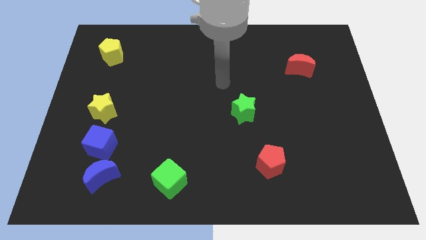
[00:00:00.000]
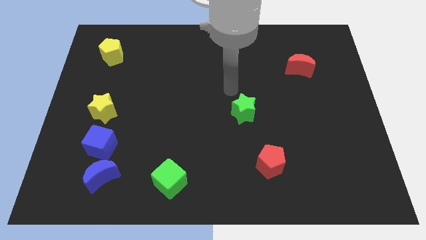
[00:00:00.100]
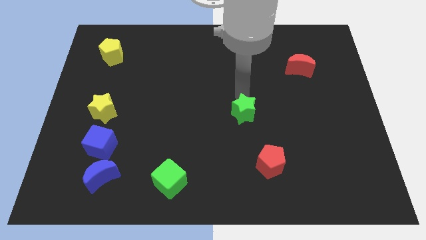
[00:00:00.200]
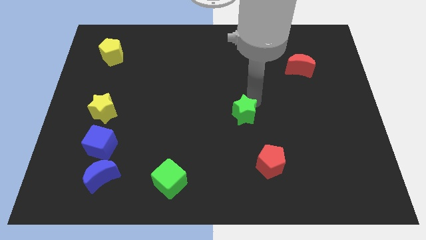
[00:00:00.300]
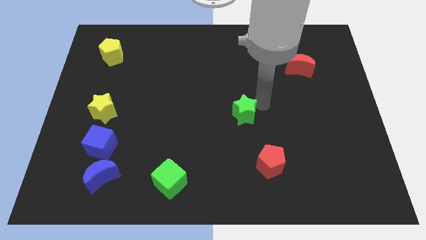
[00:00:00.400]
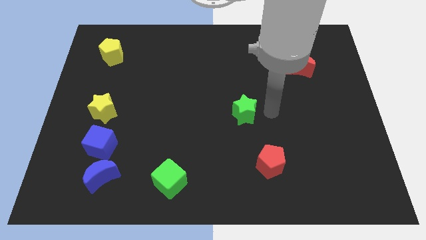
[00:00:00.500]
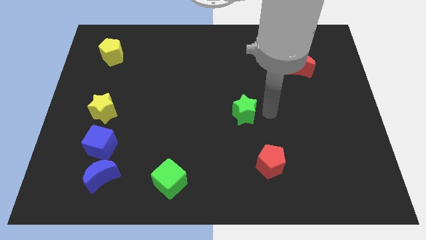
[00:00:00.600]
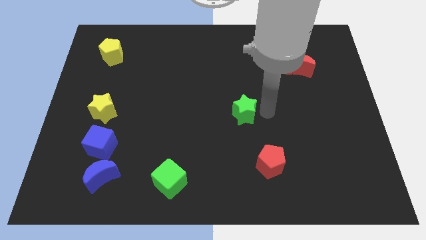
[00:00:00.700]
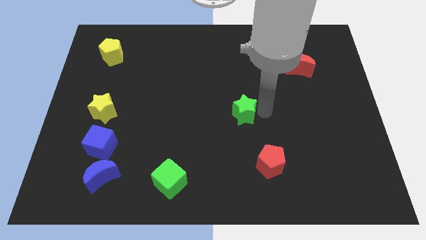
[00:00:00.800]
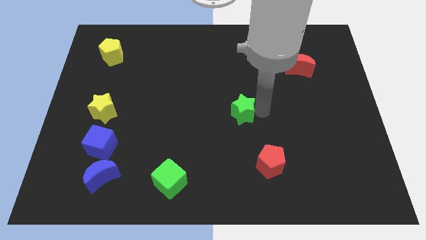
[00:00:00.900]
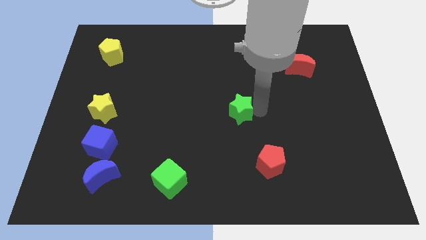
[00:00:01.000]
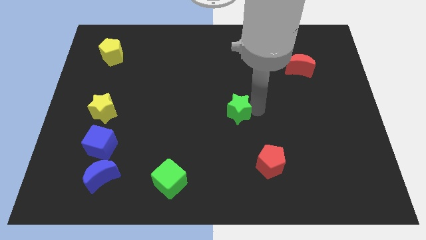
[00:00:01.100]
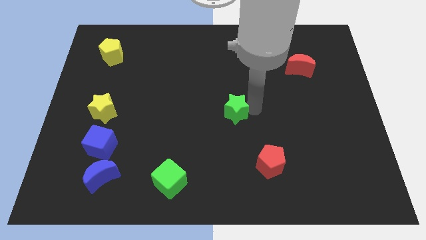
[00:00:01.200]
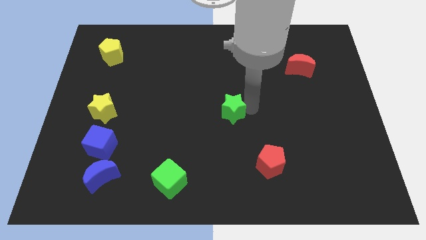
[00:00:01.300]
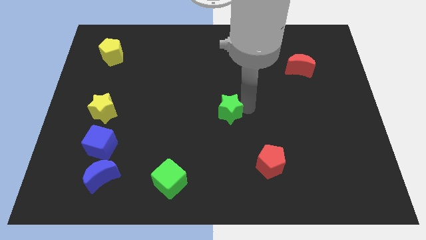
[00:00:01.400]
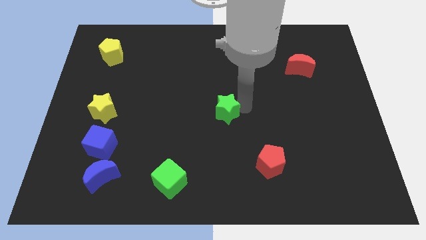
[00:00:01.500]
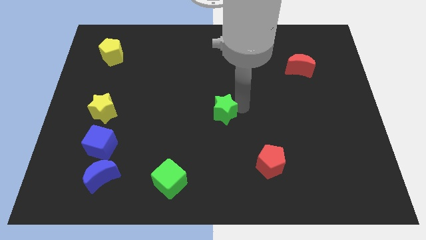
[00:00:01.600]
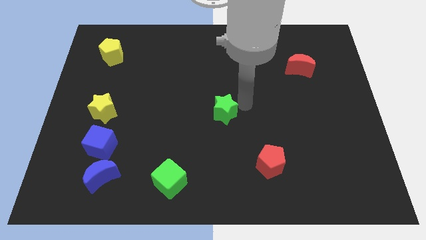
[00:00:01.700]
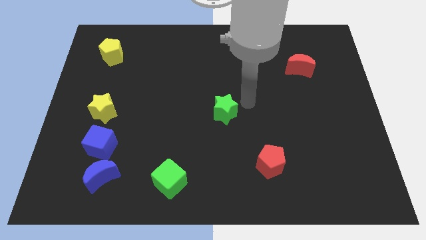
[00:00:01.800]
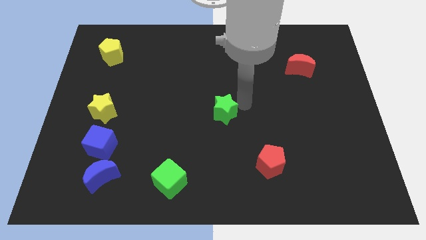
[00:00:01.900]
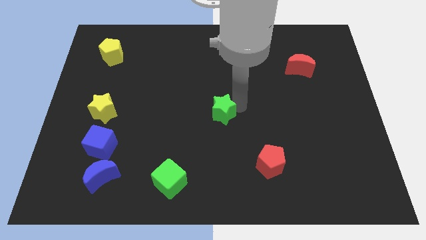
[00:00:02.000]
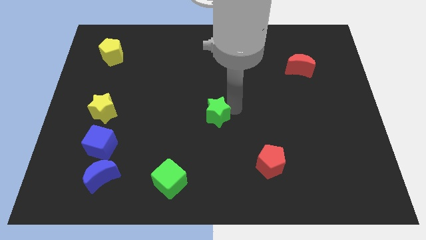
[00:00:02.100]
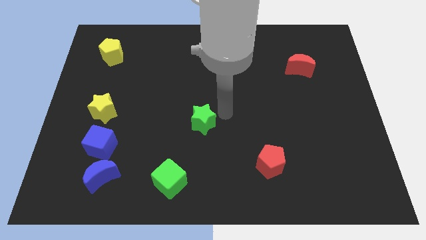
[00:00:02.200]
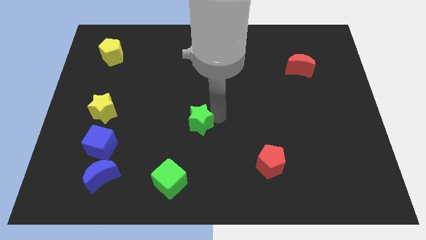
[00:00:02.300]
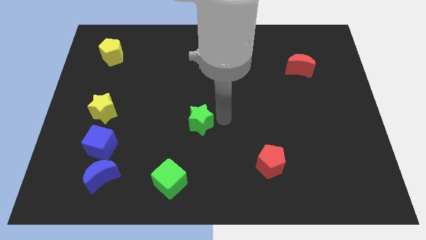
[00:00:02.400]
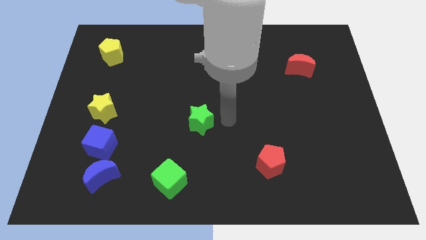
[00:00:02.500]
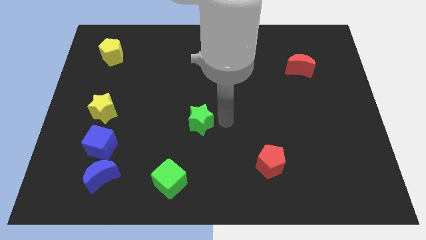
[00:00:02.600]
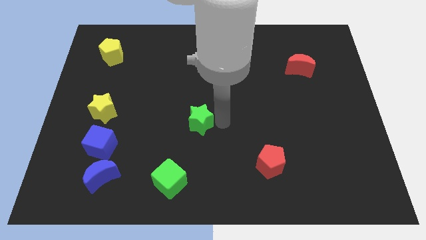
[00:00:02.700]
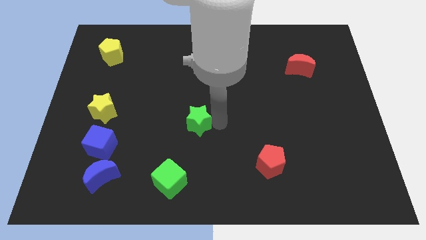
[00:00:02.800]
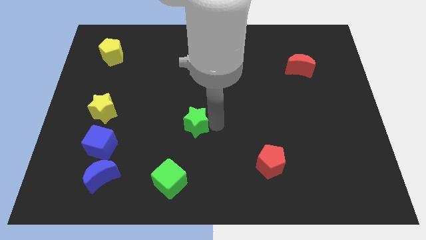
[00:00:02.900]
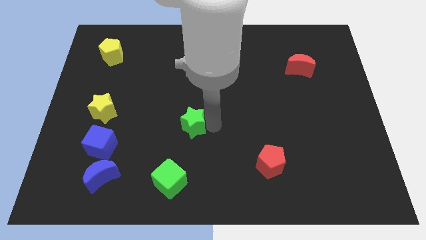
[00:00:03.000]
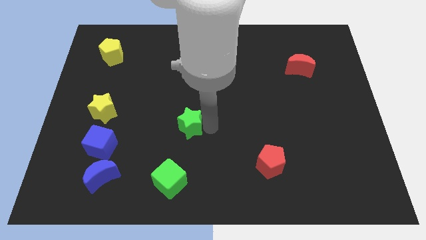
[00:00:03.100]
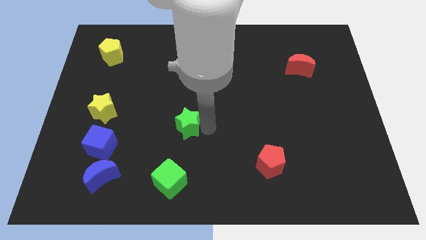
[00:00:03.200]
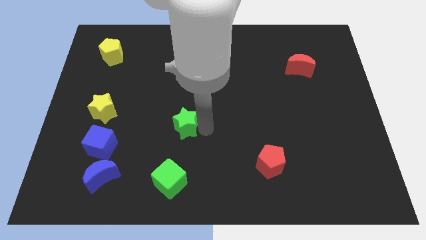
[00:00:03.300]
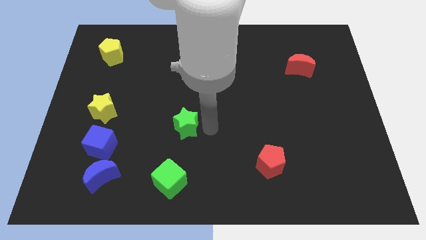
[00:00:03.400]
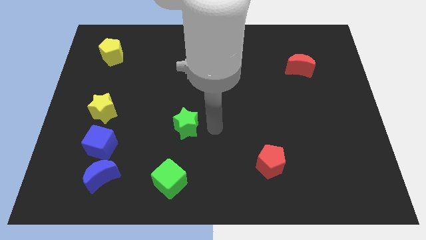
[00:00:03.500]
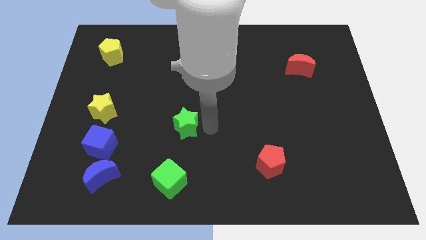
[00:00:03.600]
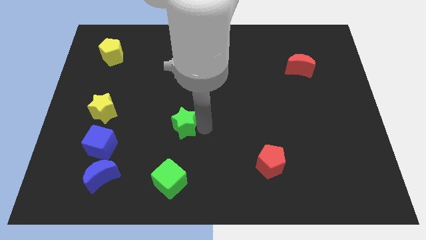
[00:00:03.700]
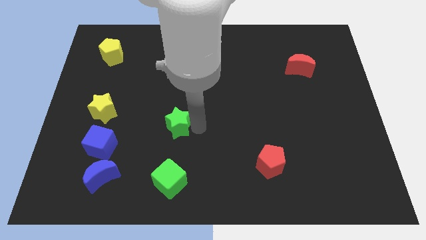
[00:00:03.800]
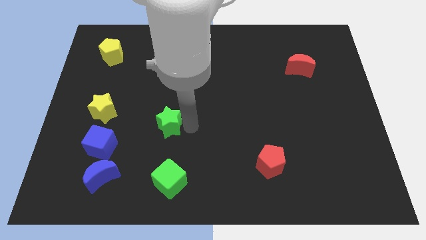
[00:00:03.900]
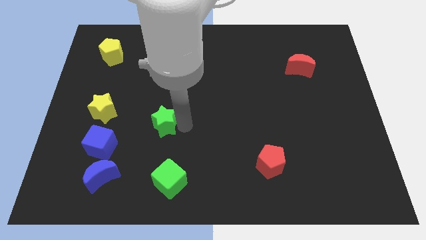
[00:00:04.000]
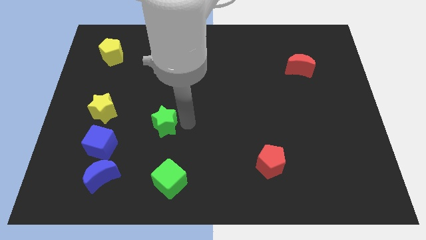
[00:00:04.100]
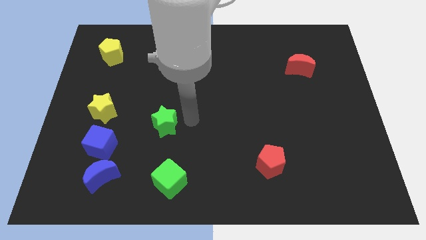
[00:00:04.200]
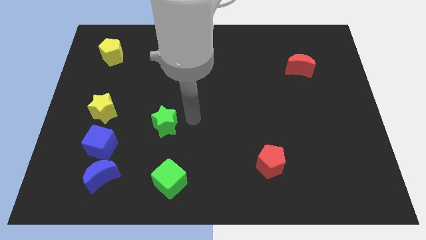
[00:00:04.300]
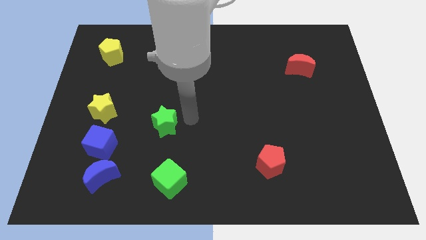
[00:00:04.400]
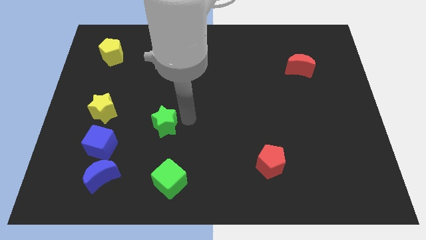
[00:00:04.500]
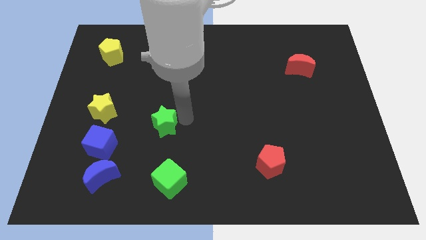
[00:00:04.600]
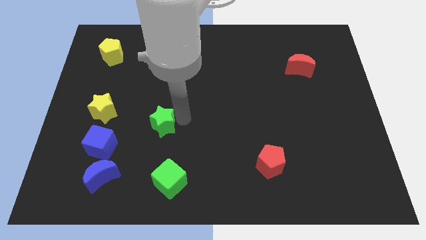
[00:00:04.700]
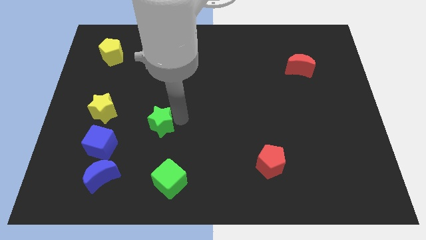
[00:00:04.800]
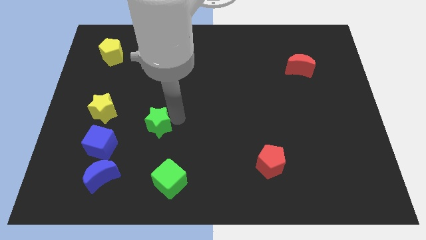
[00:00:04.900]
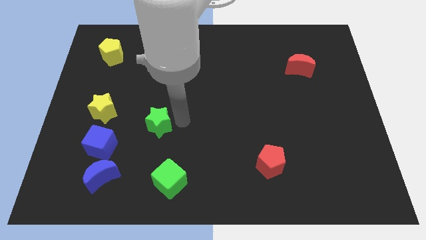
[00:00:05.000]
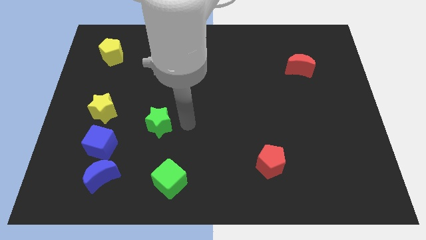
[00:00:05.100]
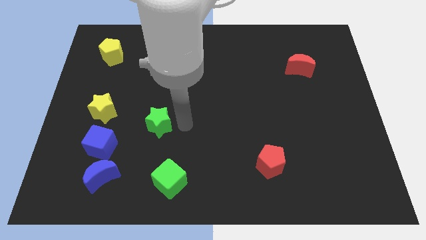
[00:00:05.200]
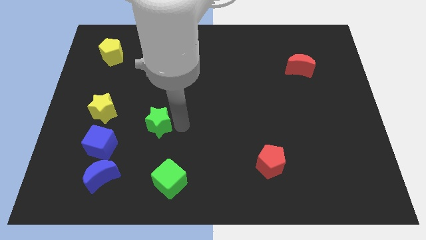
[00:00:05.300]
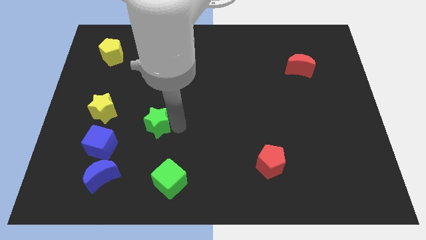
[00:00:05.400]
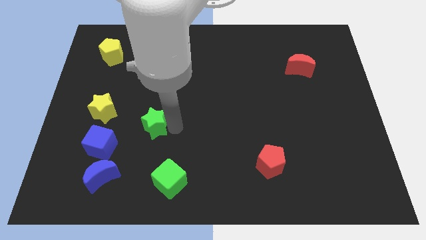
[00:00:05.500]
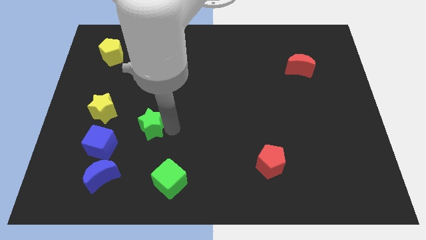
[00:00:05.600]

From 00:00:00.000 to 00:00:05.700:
push the green star diagonally up and to the right of the blue cube

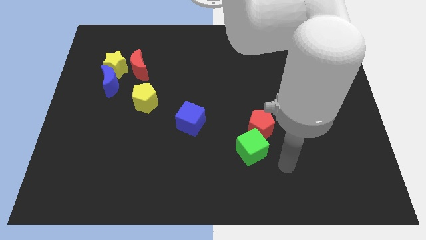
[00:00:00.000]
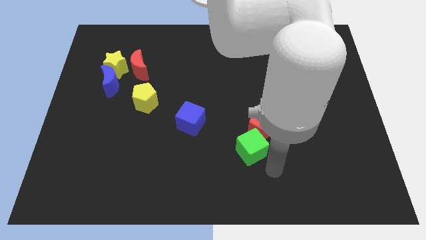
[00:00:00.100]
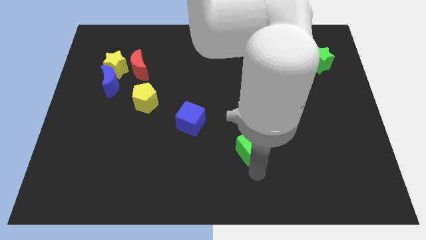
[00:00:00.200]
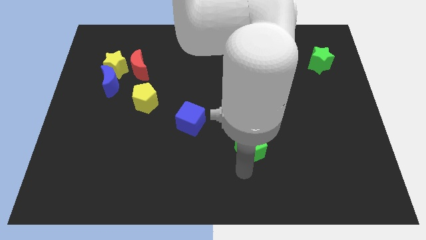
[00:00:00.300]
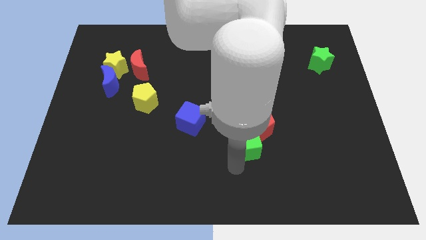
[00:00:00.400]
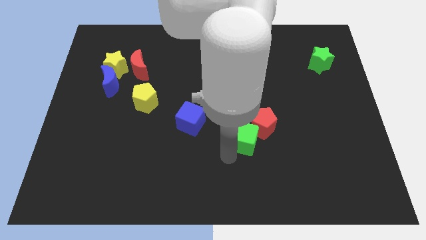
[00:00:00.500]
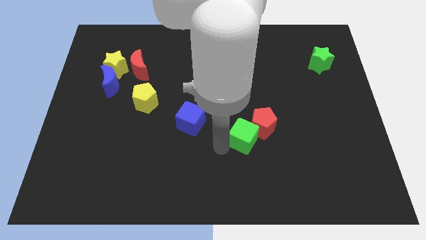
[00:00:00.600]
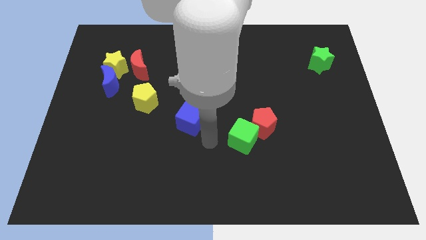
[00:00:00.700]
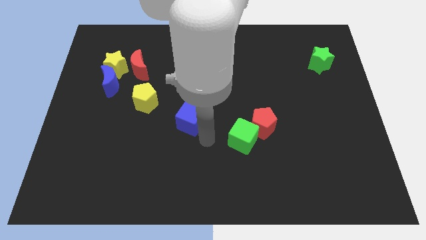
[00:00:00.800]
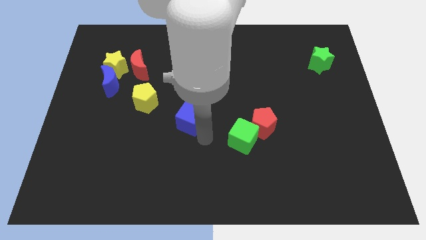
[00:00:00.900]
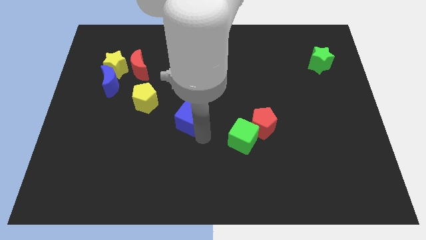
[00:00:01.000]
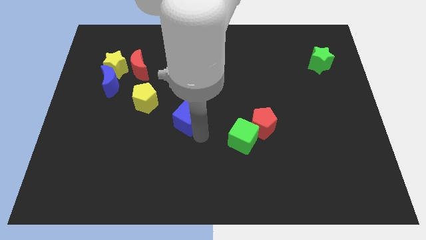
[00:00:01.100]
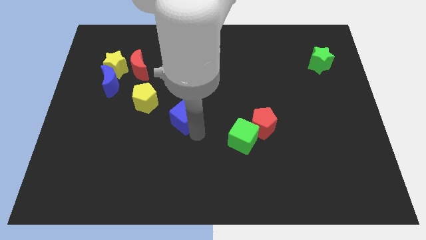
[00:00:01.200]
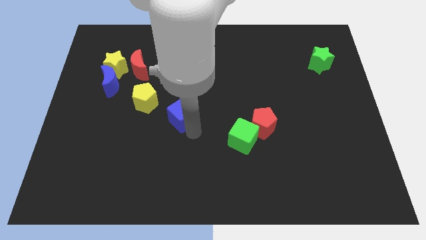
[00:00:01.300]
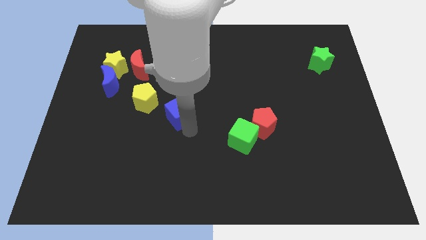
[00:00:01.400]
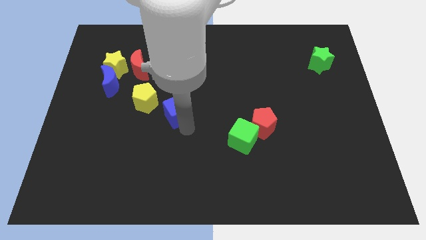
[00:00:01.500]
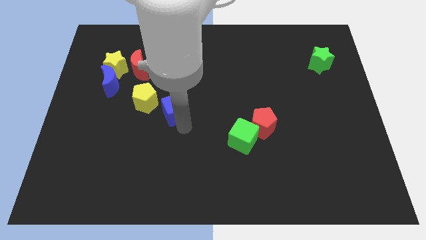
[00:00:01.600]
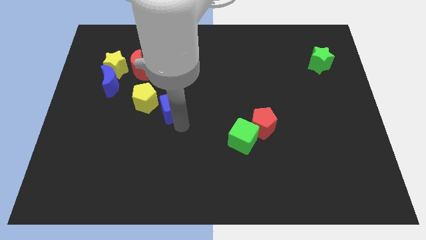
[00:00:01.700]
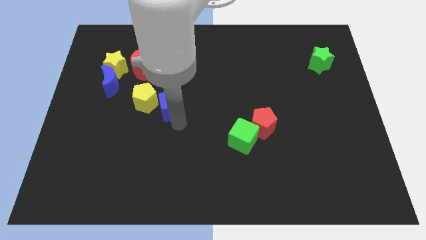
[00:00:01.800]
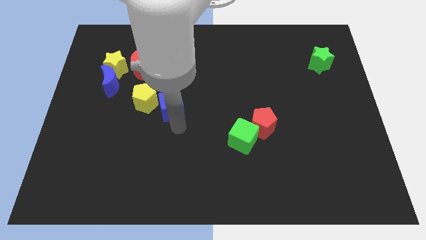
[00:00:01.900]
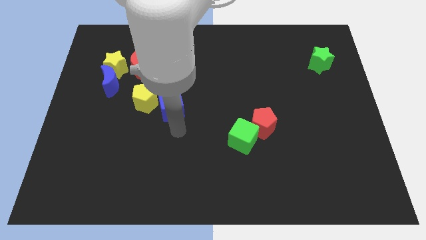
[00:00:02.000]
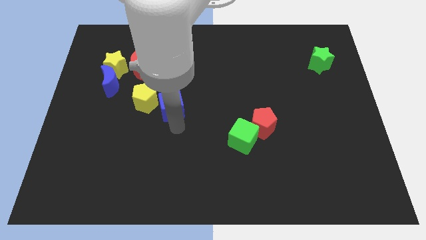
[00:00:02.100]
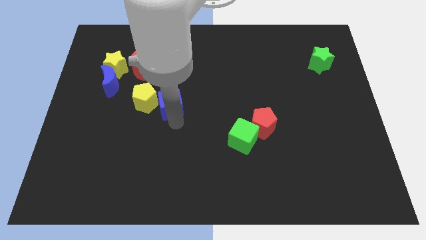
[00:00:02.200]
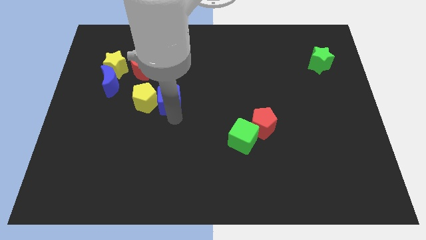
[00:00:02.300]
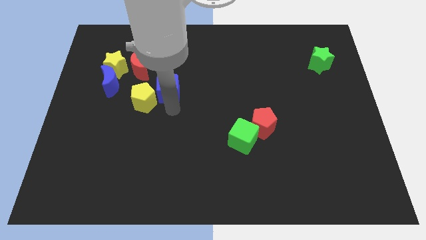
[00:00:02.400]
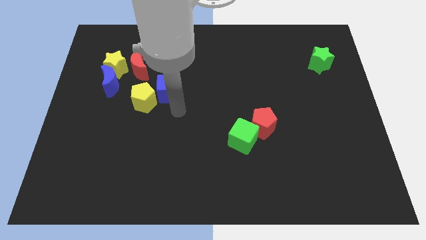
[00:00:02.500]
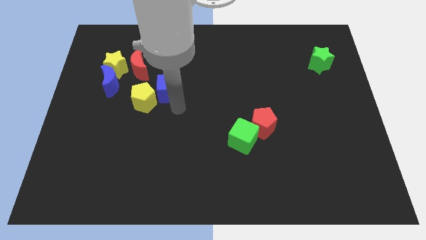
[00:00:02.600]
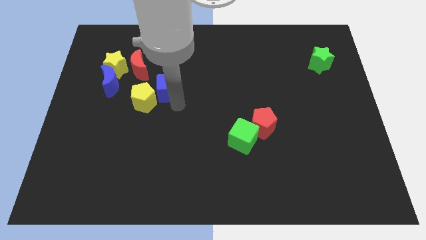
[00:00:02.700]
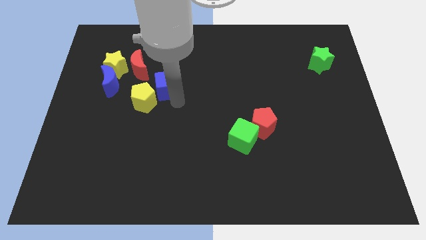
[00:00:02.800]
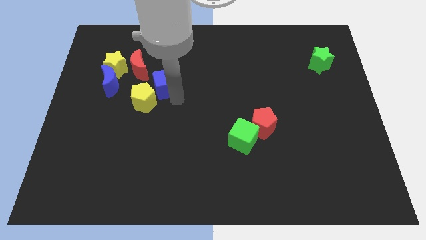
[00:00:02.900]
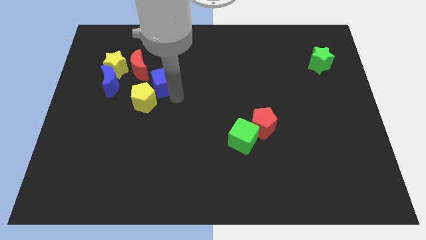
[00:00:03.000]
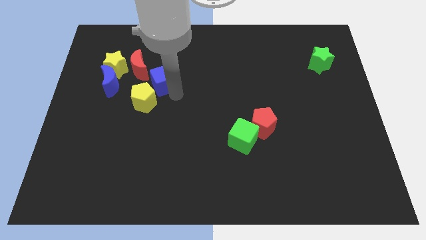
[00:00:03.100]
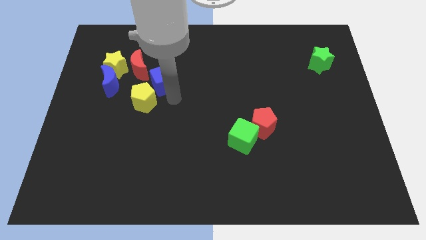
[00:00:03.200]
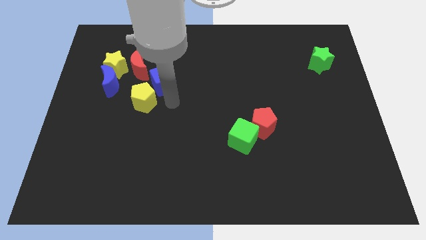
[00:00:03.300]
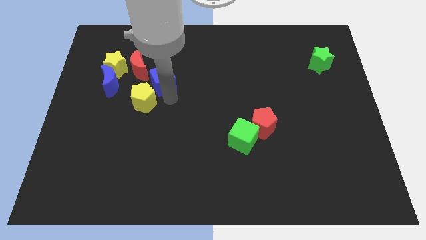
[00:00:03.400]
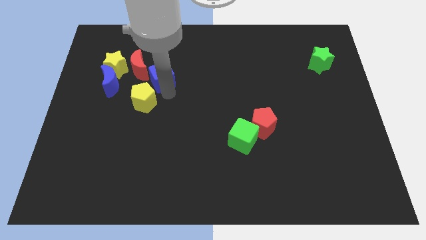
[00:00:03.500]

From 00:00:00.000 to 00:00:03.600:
put the blue cube right of the yellow star
